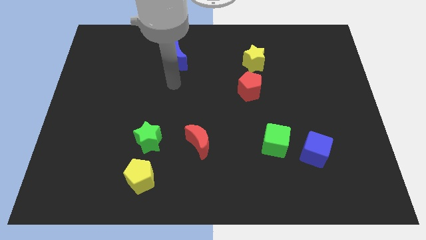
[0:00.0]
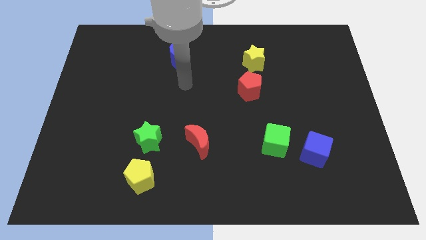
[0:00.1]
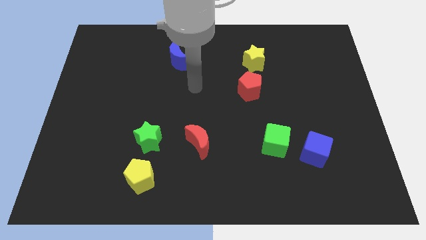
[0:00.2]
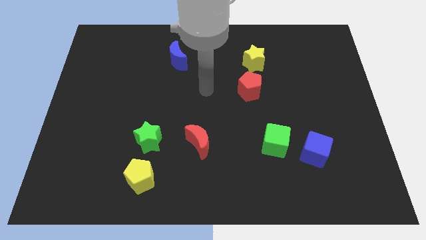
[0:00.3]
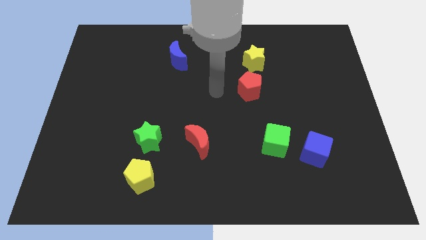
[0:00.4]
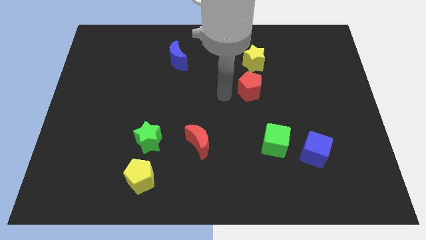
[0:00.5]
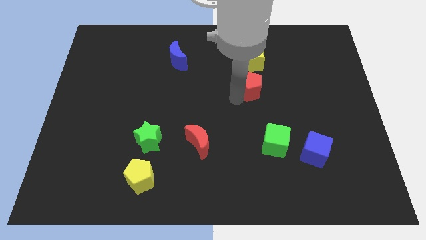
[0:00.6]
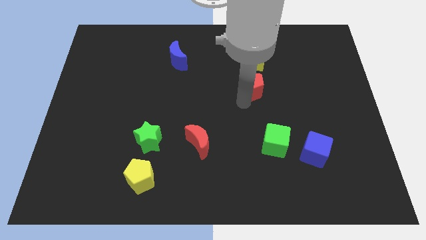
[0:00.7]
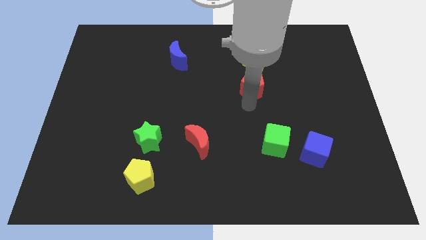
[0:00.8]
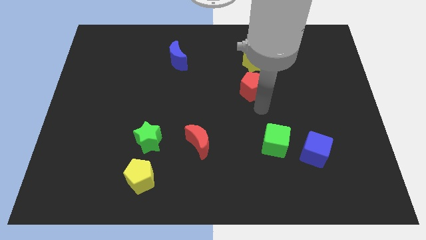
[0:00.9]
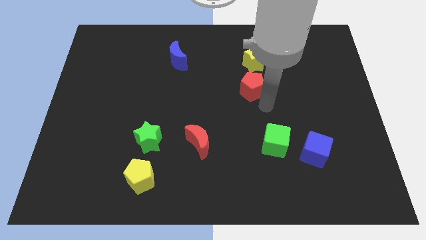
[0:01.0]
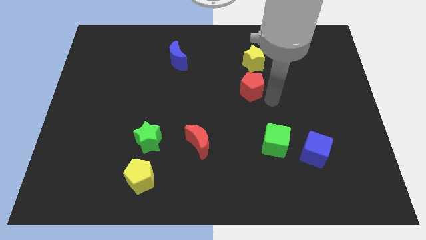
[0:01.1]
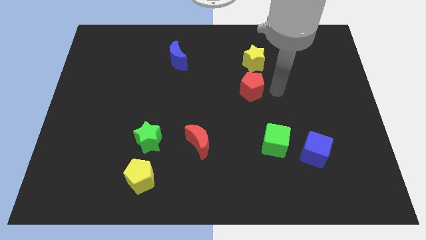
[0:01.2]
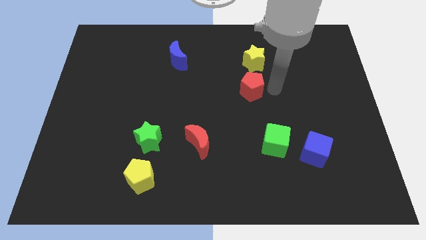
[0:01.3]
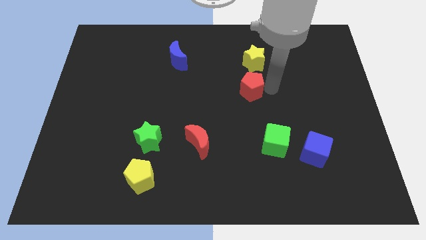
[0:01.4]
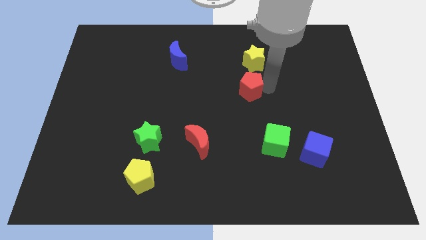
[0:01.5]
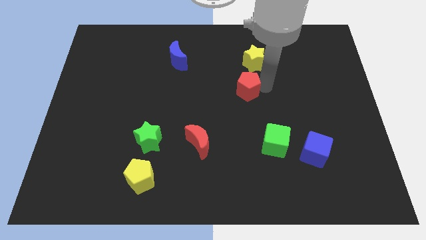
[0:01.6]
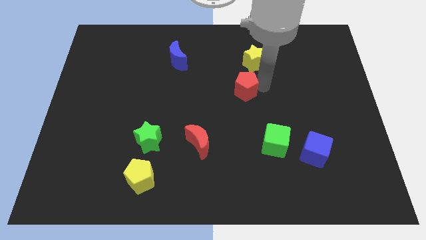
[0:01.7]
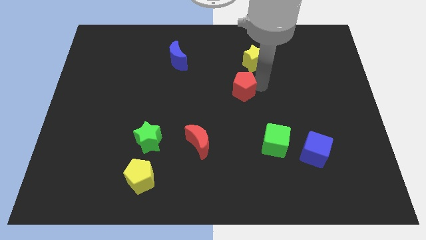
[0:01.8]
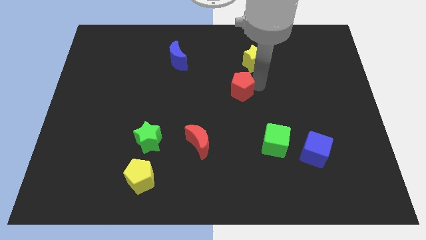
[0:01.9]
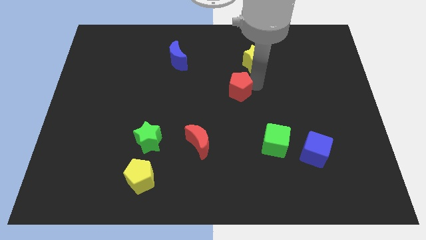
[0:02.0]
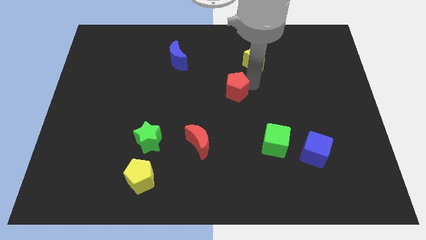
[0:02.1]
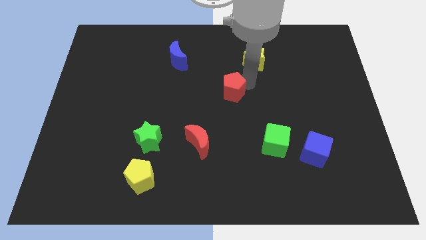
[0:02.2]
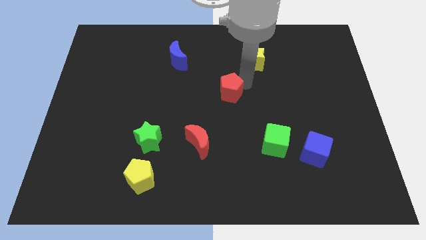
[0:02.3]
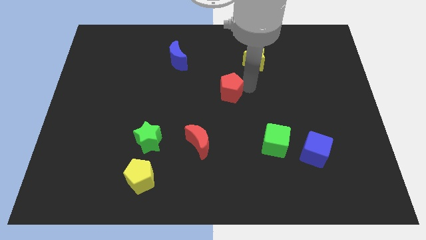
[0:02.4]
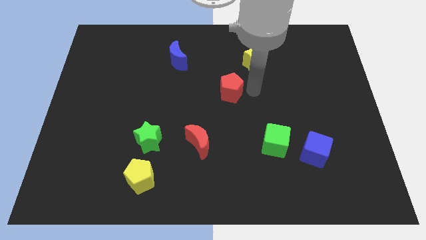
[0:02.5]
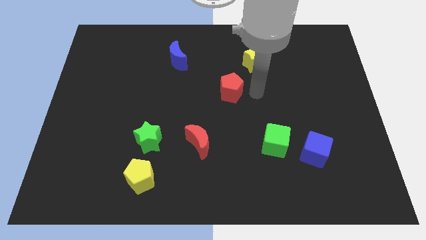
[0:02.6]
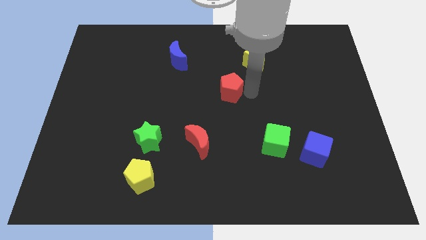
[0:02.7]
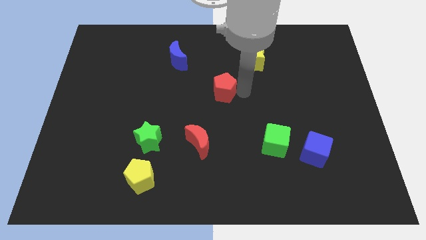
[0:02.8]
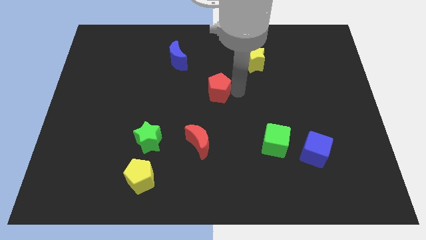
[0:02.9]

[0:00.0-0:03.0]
move the red pentagon somewhat left

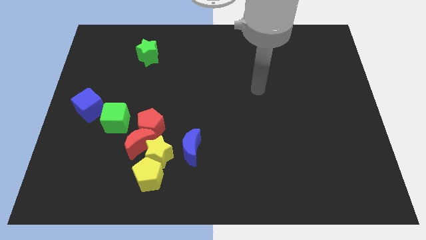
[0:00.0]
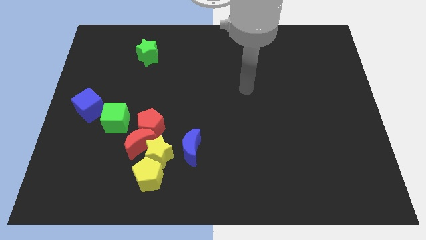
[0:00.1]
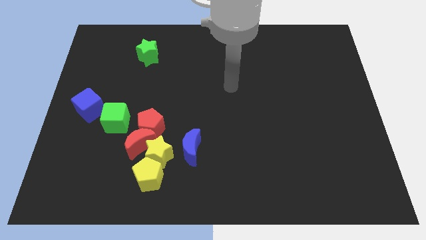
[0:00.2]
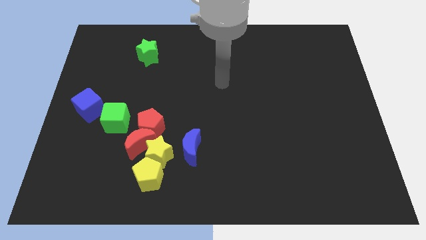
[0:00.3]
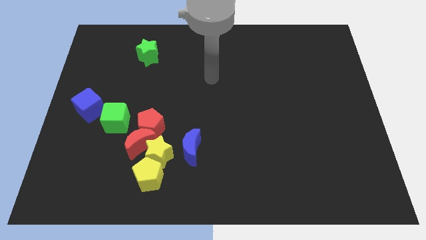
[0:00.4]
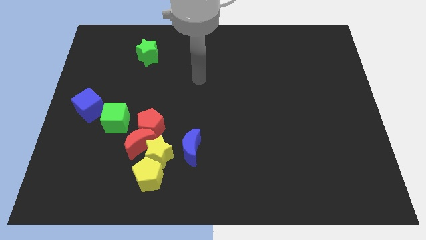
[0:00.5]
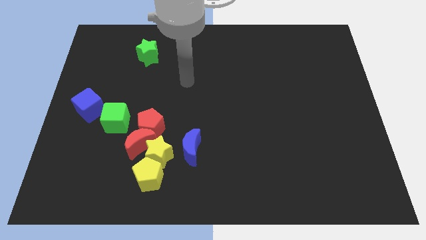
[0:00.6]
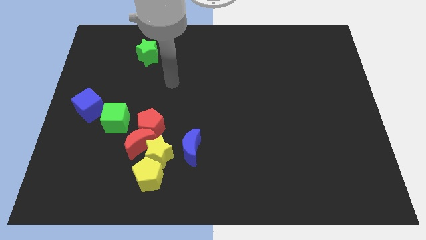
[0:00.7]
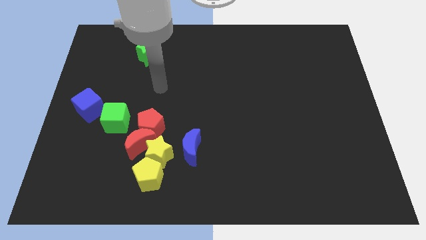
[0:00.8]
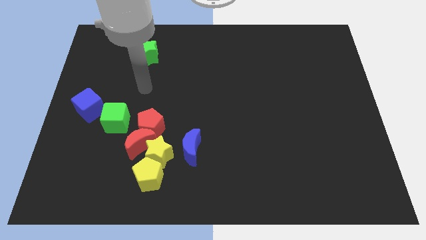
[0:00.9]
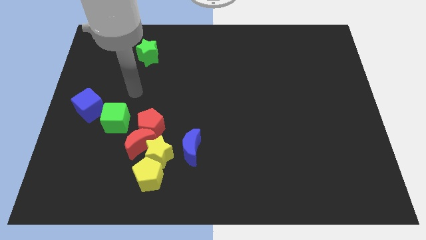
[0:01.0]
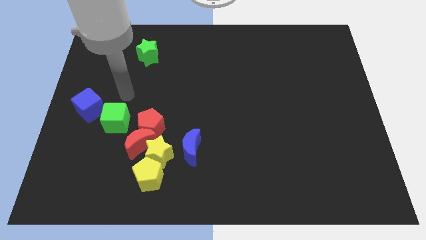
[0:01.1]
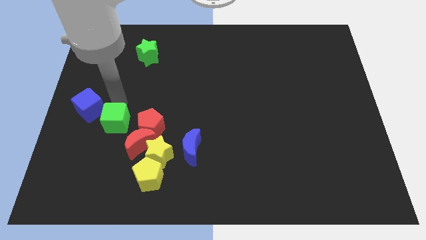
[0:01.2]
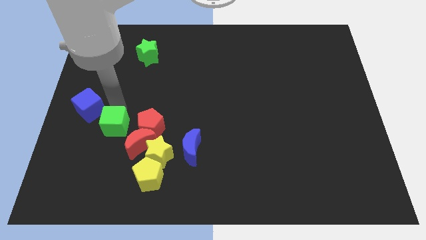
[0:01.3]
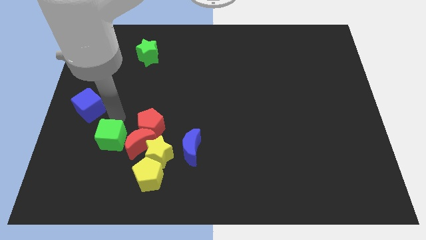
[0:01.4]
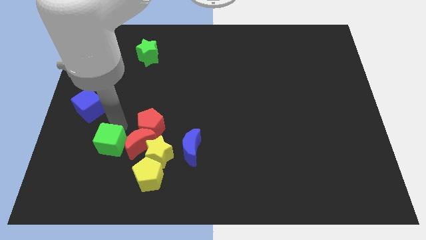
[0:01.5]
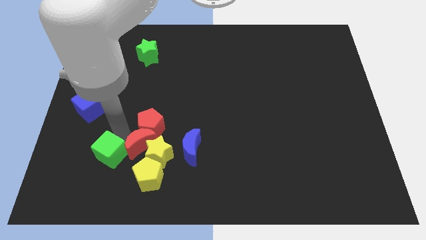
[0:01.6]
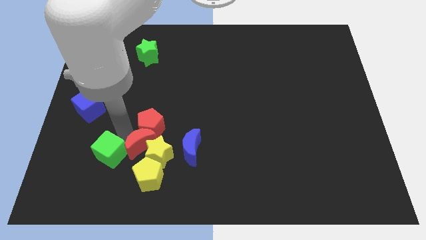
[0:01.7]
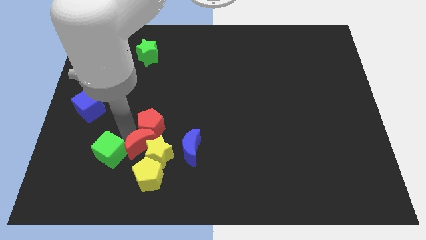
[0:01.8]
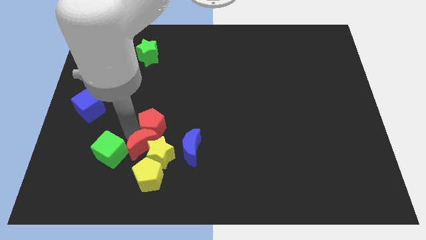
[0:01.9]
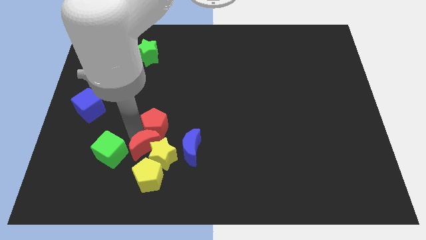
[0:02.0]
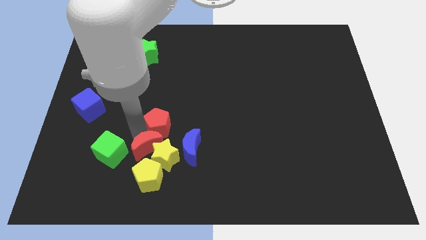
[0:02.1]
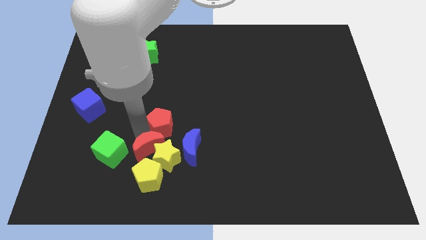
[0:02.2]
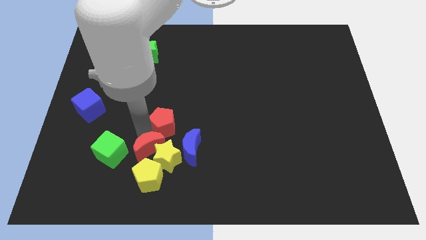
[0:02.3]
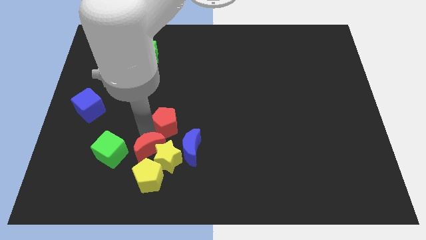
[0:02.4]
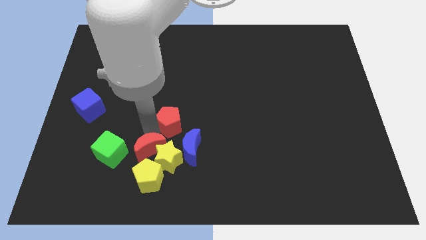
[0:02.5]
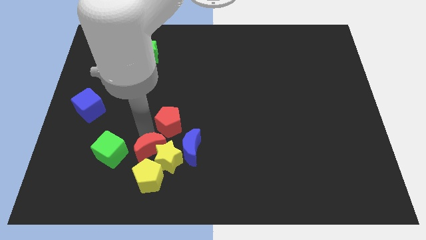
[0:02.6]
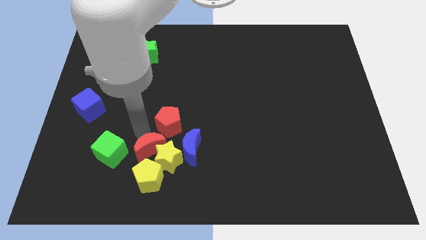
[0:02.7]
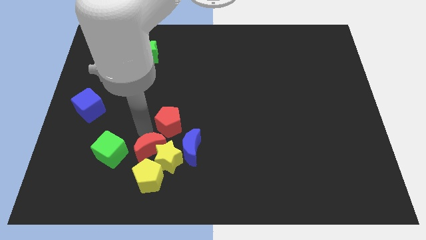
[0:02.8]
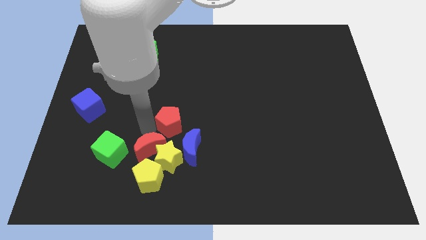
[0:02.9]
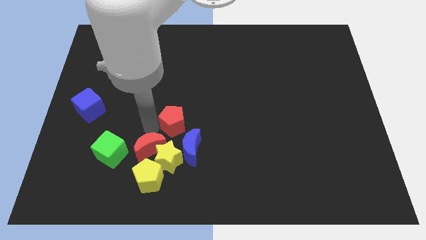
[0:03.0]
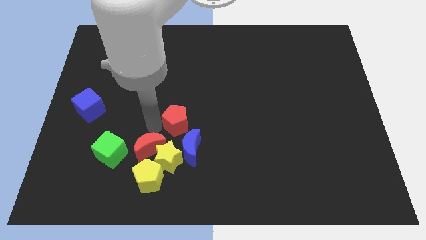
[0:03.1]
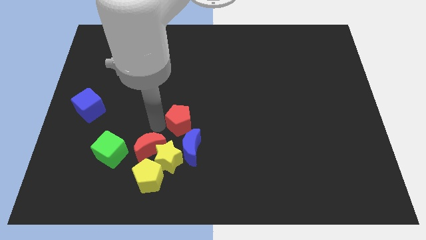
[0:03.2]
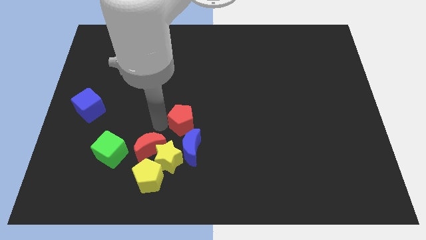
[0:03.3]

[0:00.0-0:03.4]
slightly push the red pentagon right

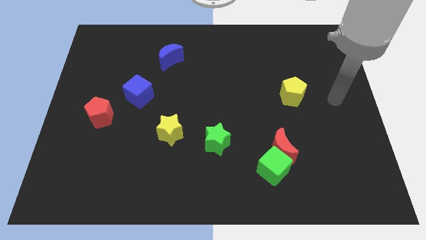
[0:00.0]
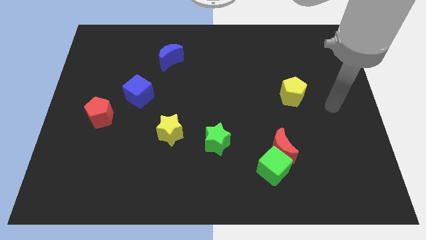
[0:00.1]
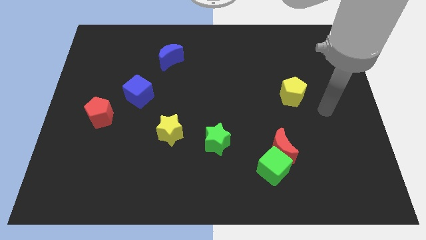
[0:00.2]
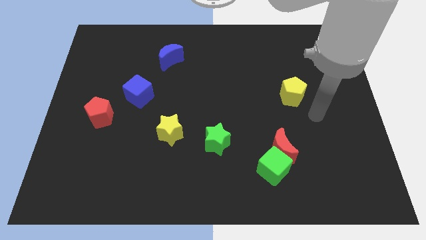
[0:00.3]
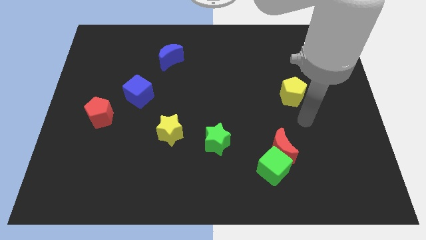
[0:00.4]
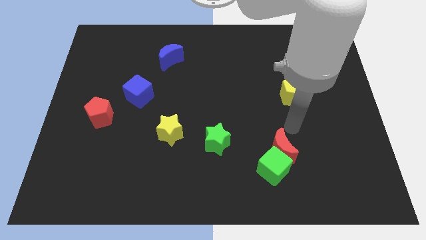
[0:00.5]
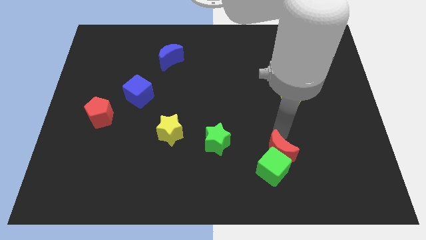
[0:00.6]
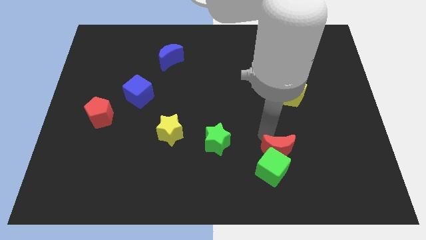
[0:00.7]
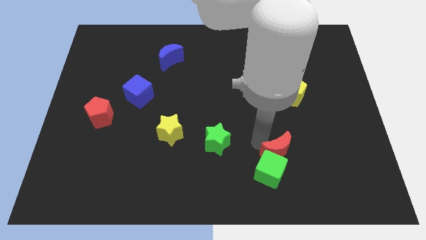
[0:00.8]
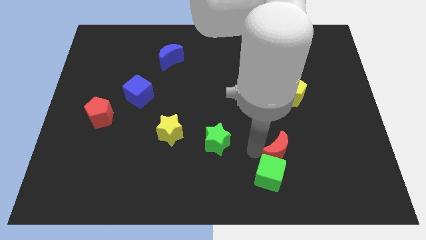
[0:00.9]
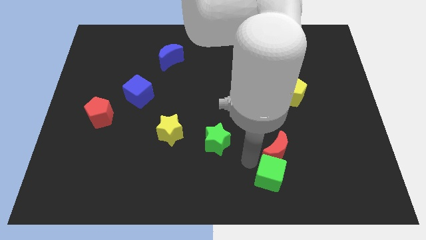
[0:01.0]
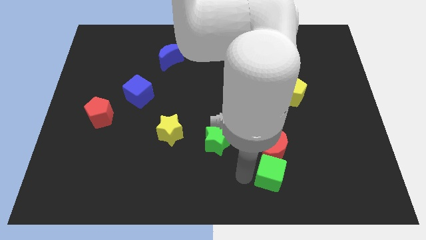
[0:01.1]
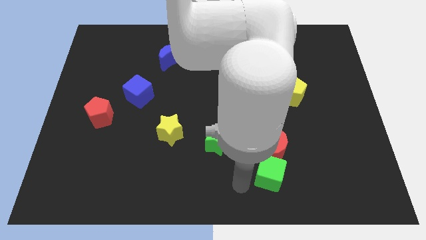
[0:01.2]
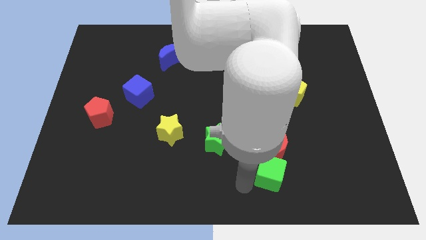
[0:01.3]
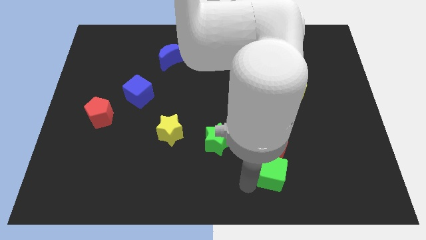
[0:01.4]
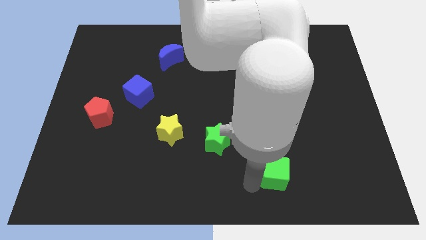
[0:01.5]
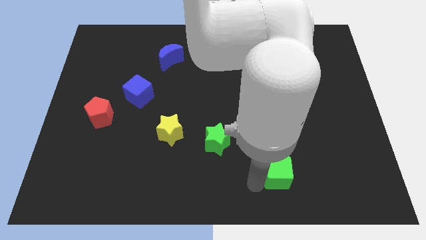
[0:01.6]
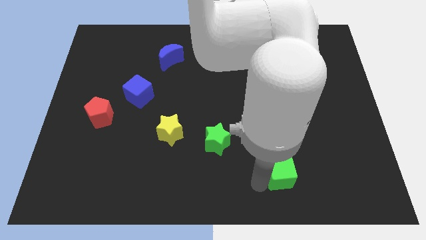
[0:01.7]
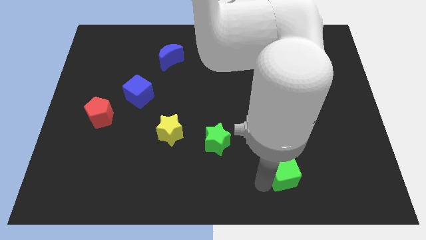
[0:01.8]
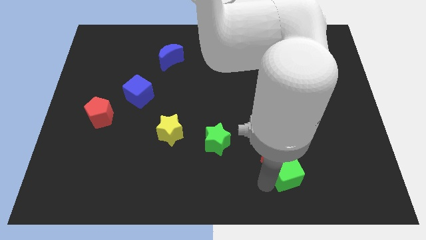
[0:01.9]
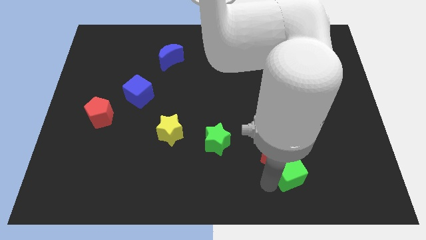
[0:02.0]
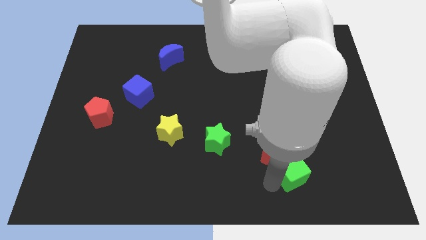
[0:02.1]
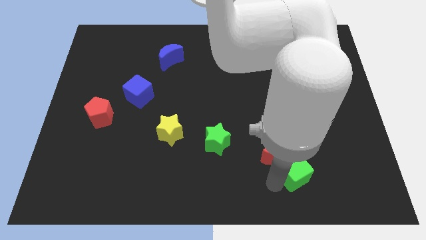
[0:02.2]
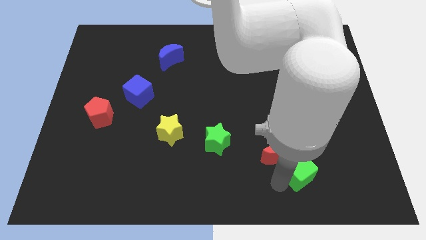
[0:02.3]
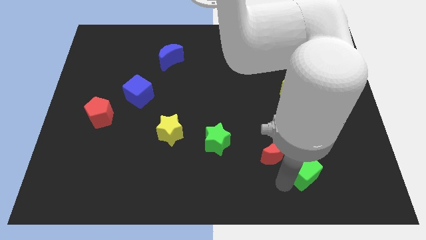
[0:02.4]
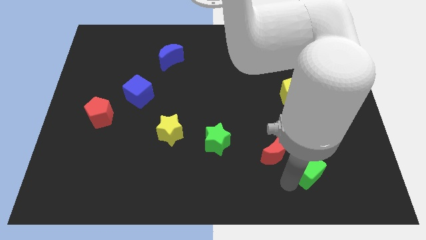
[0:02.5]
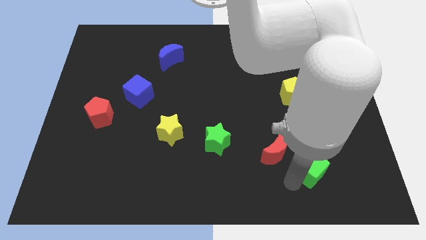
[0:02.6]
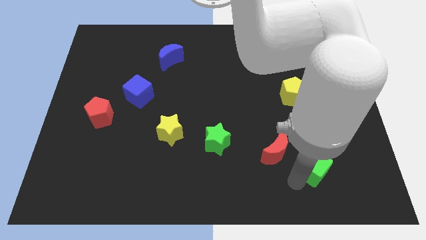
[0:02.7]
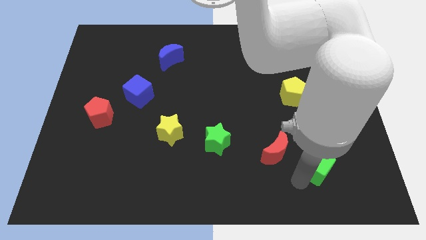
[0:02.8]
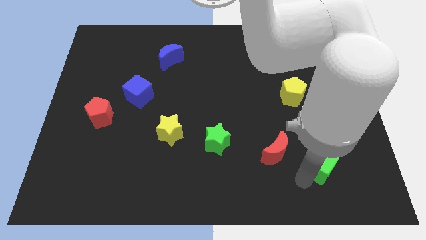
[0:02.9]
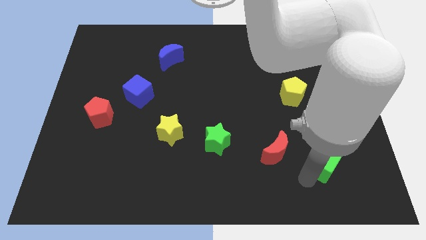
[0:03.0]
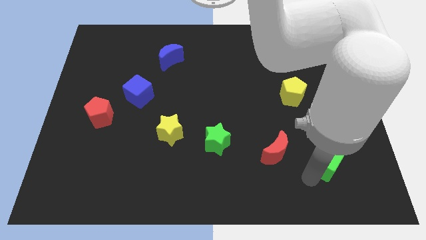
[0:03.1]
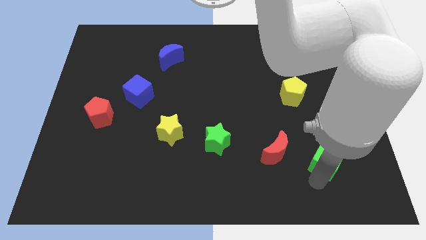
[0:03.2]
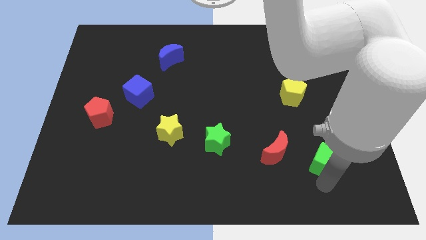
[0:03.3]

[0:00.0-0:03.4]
slightly slide the green cube diagonally up and right
